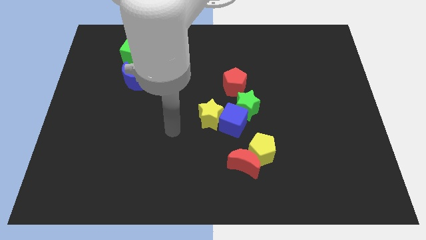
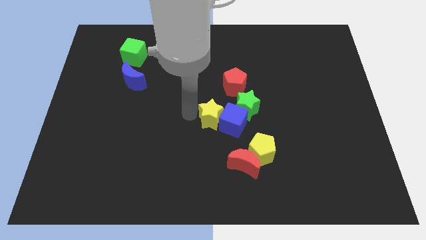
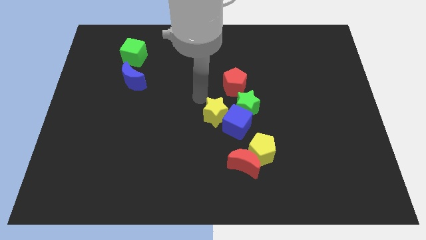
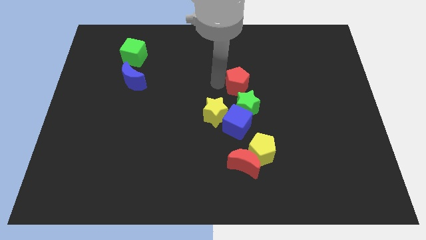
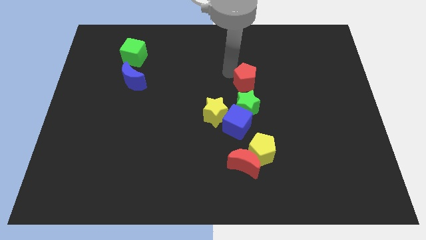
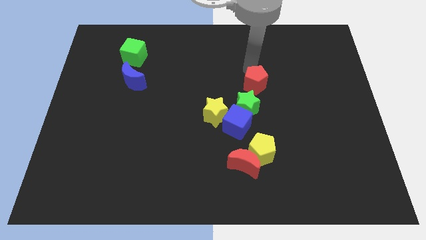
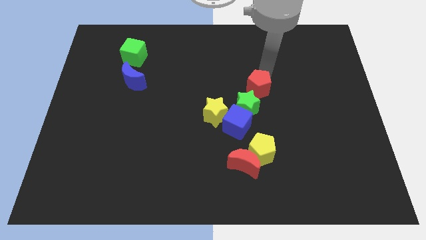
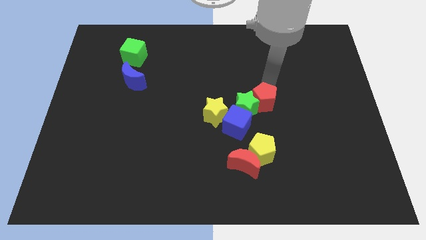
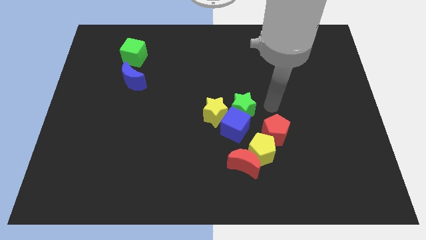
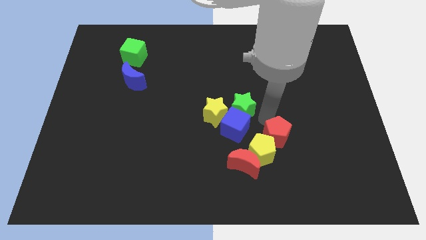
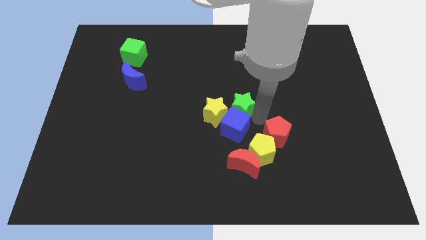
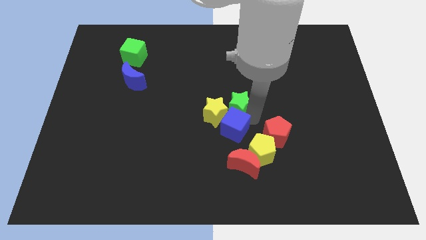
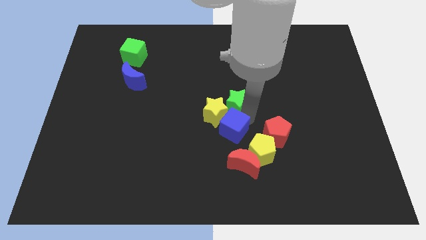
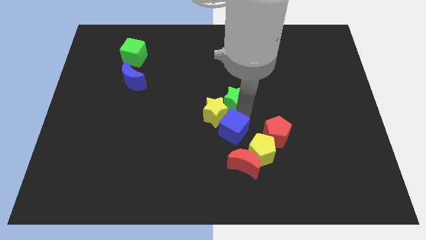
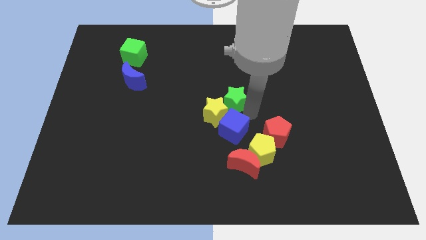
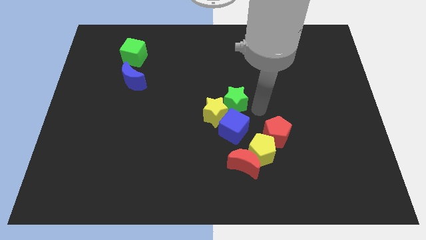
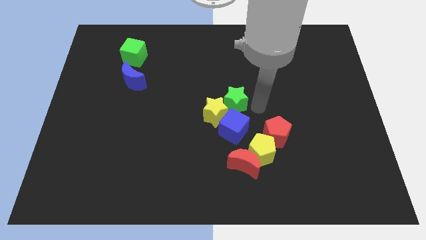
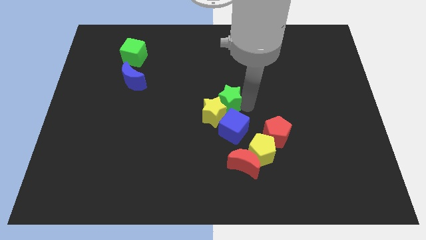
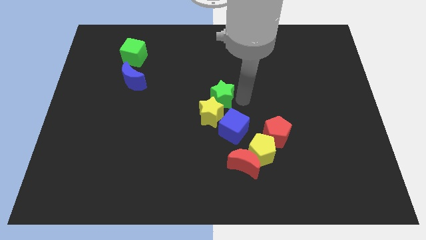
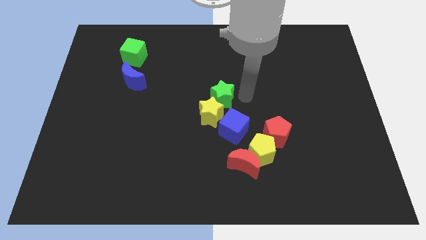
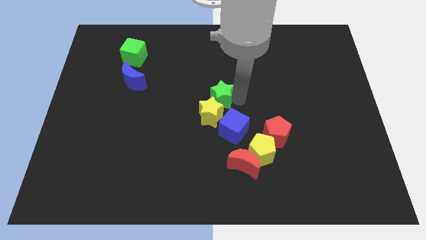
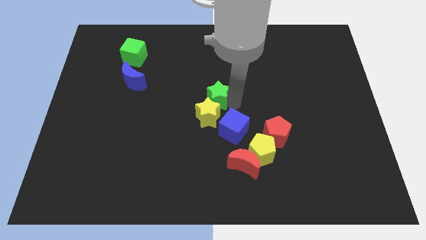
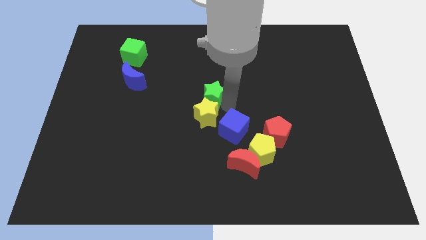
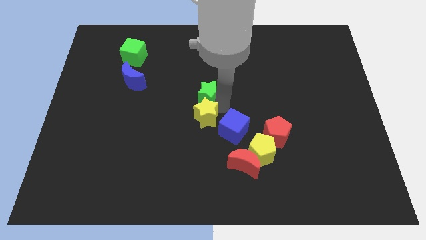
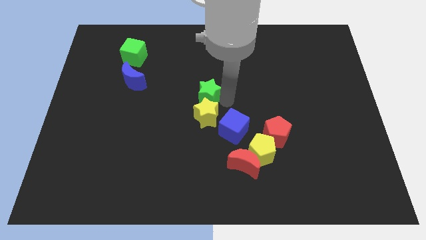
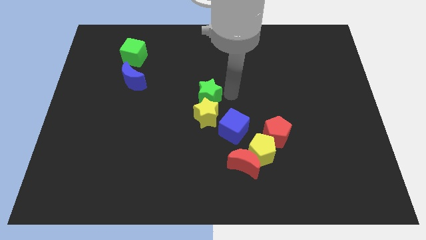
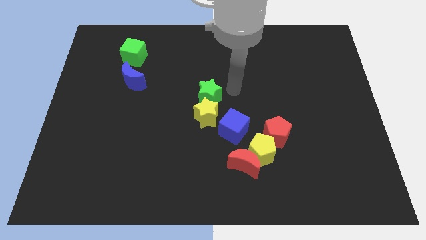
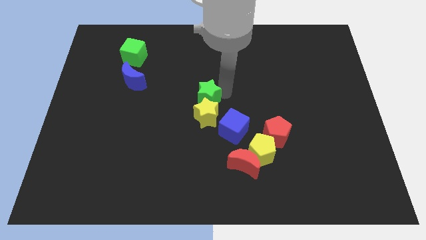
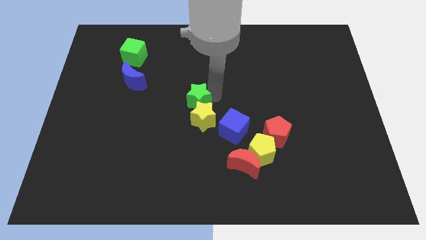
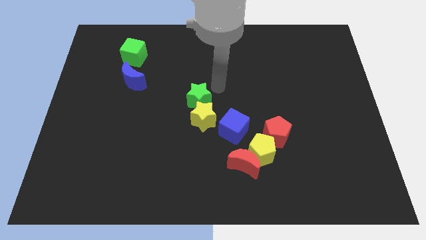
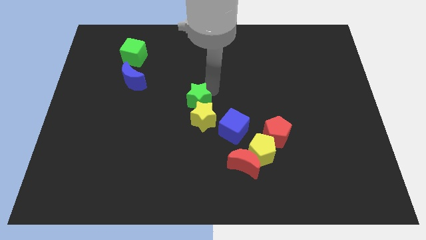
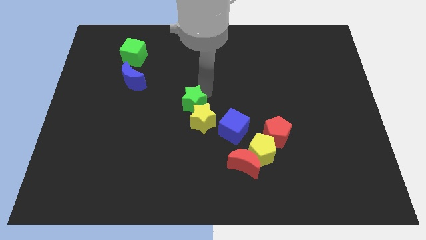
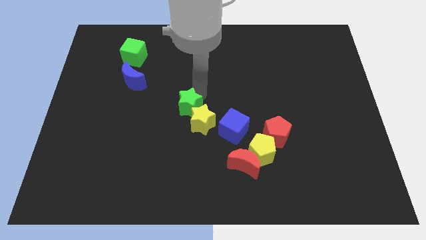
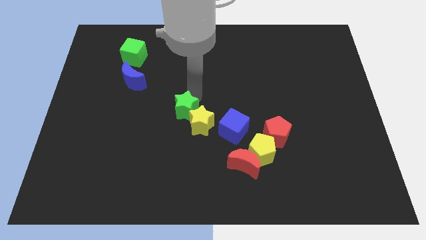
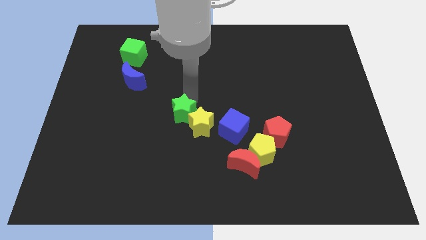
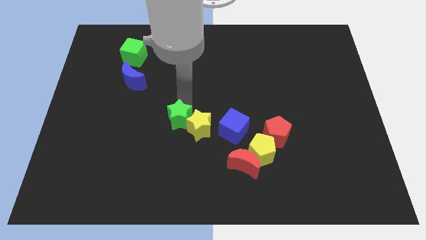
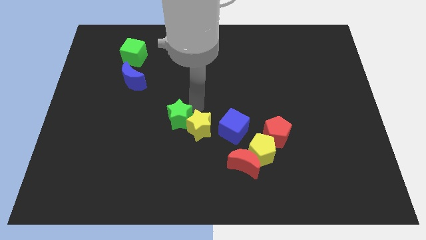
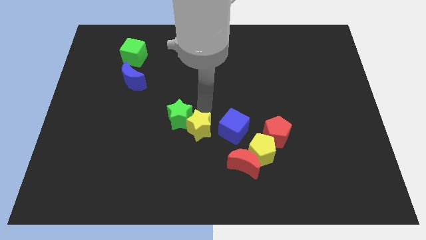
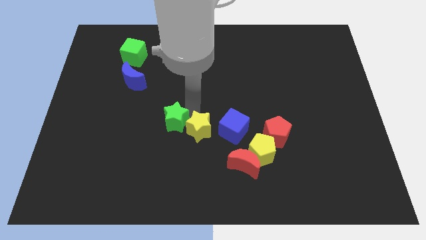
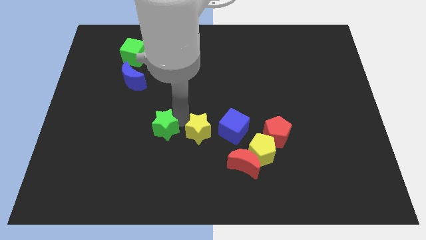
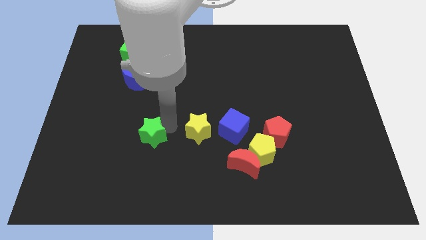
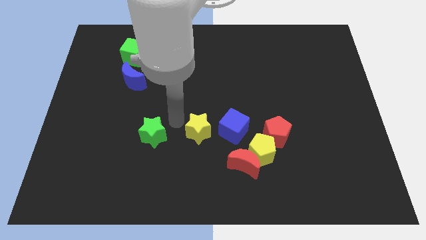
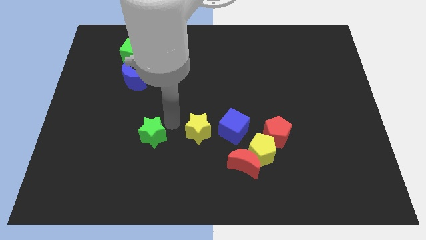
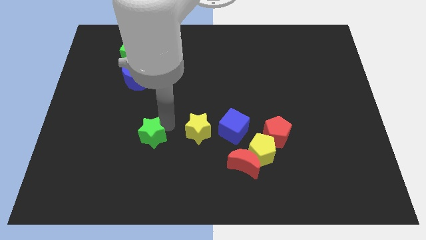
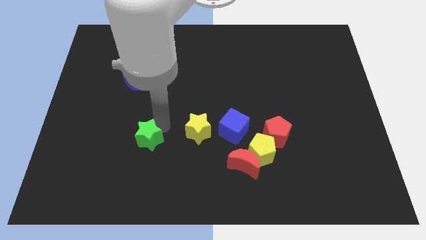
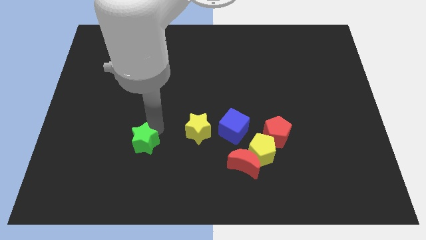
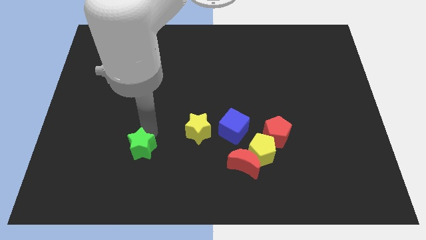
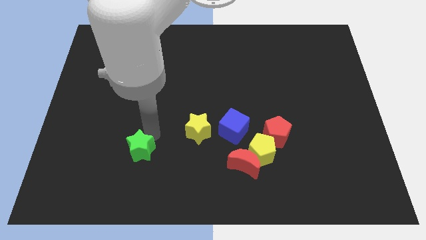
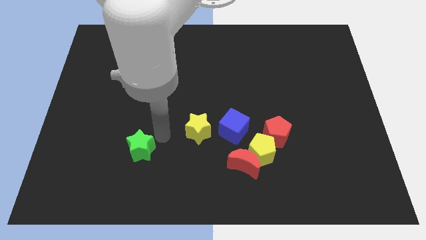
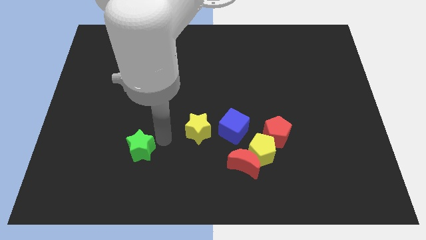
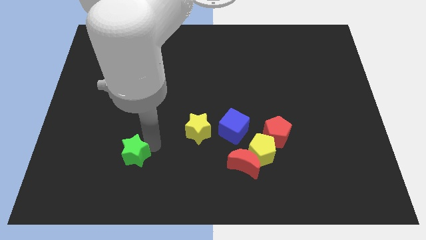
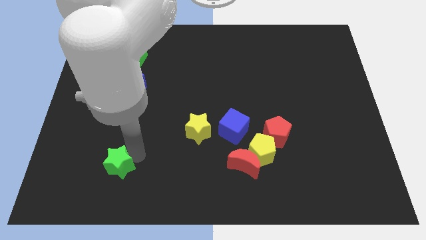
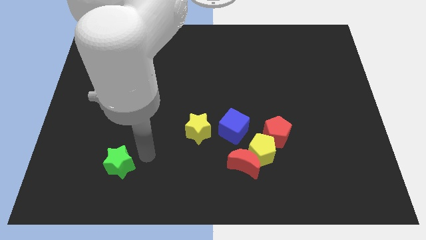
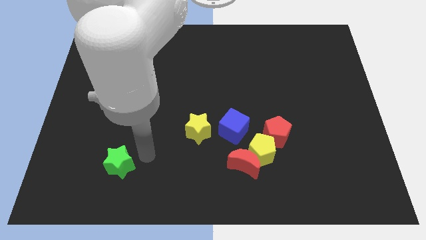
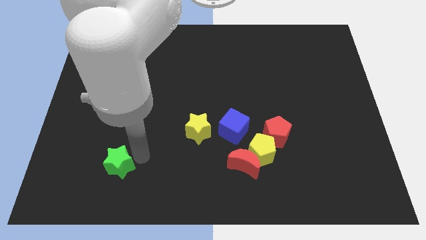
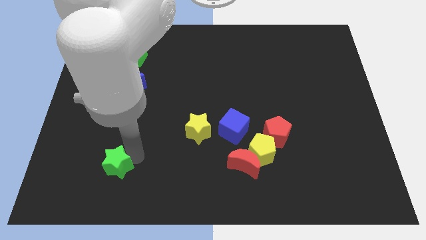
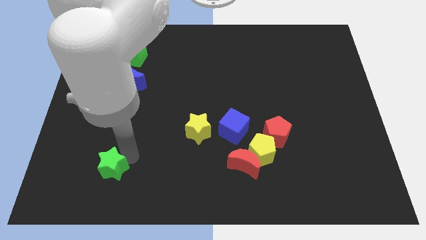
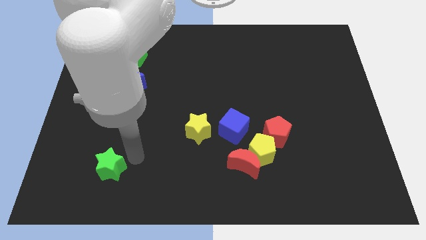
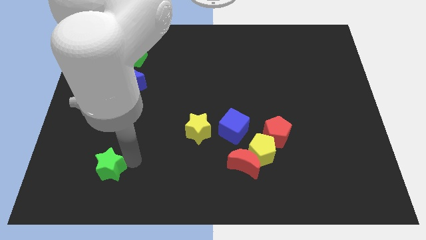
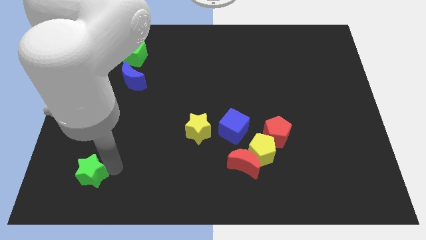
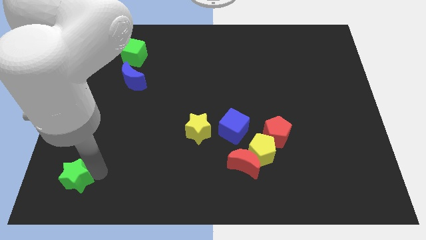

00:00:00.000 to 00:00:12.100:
push the green star to the bottom left of the board

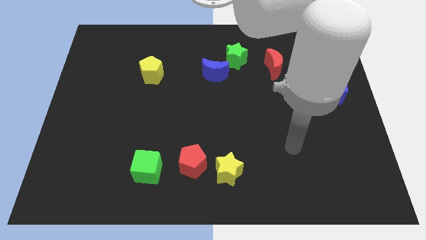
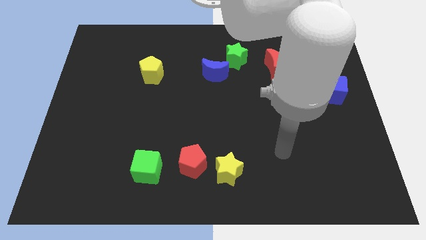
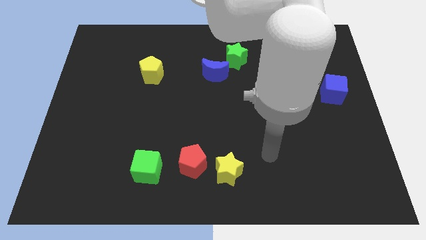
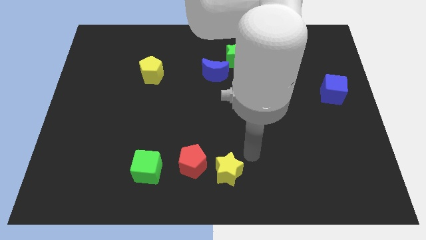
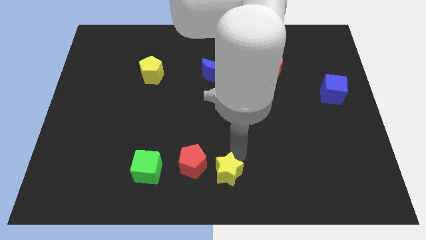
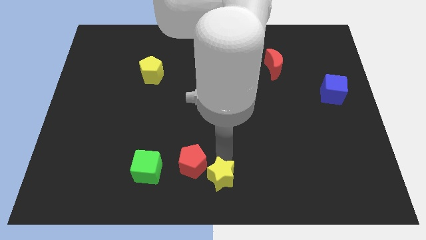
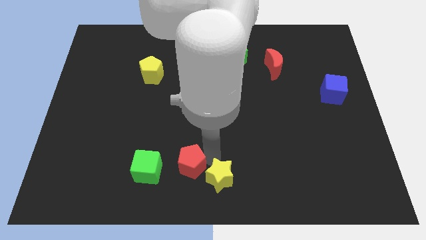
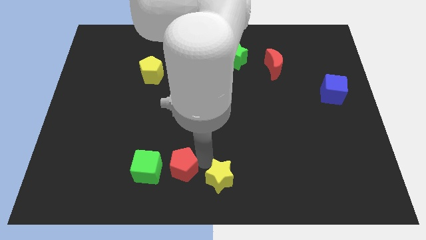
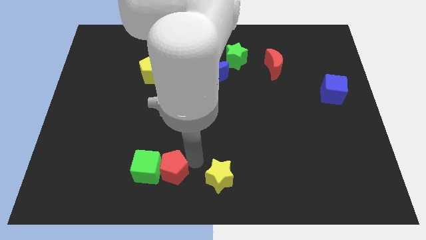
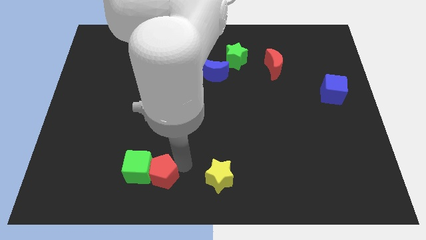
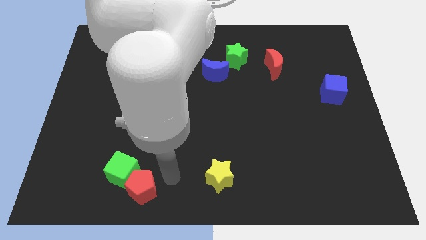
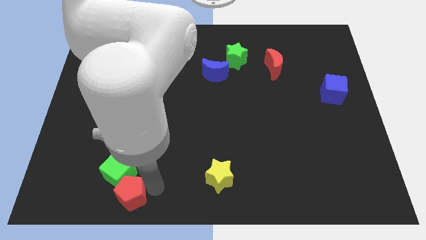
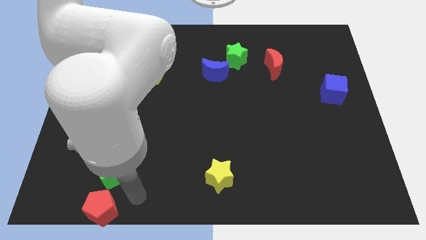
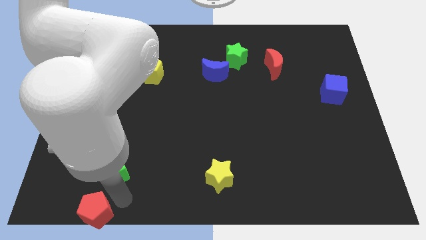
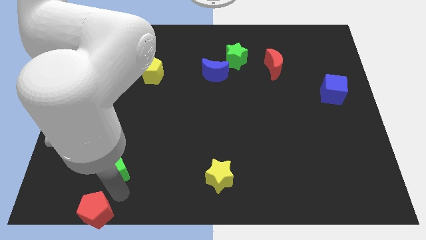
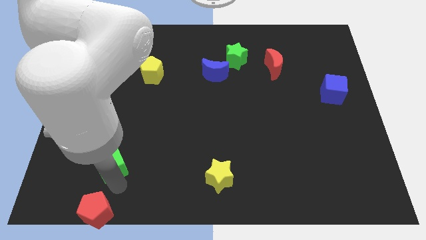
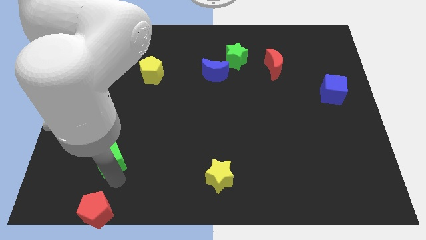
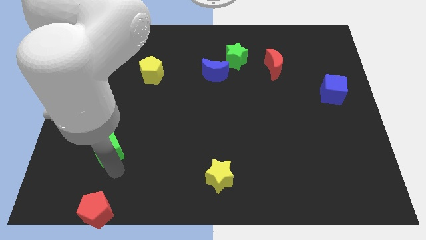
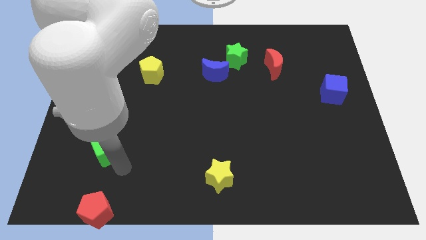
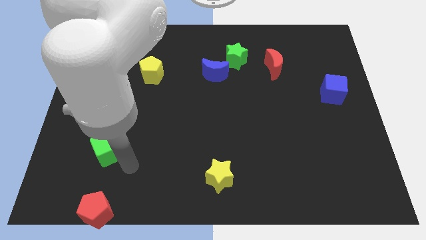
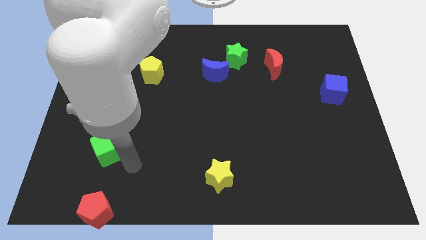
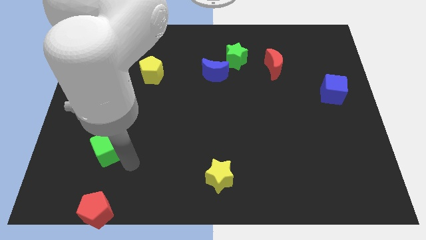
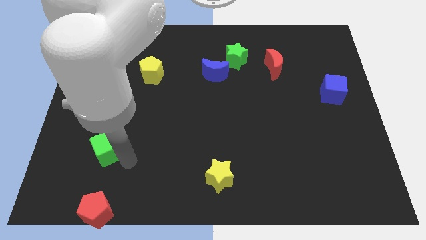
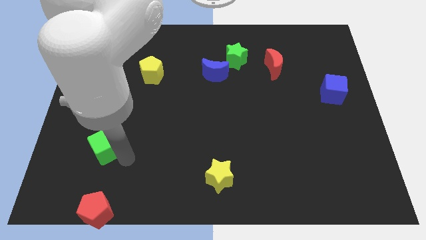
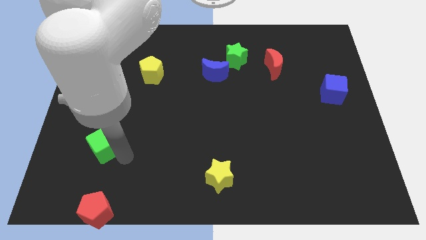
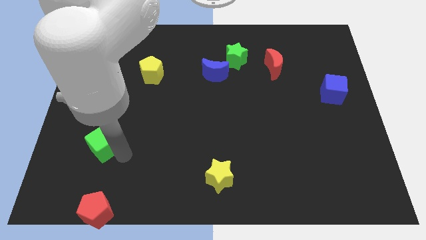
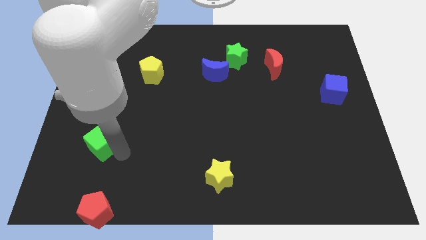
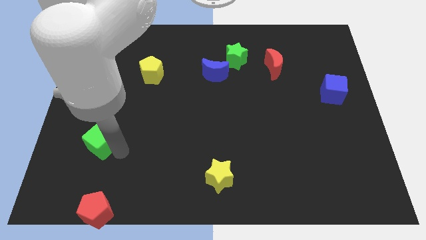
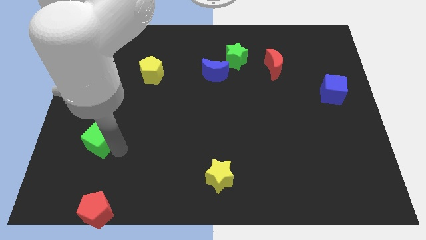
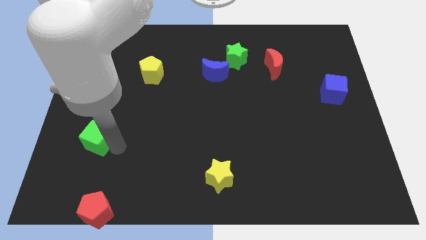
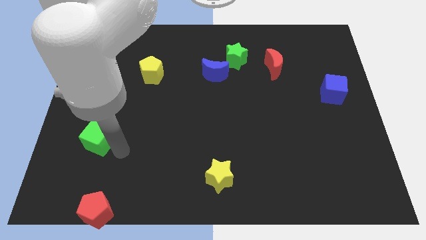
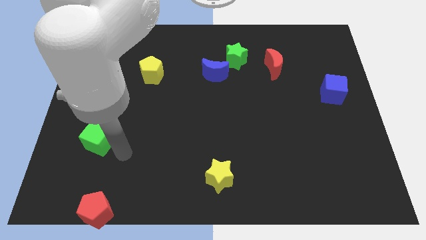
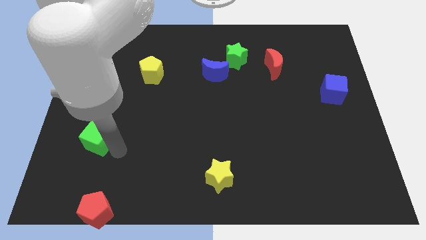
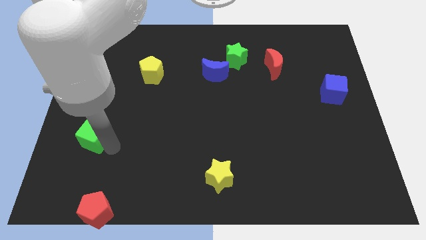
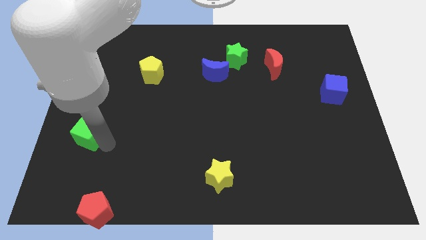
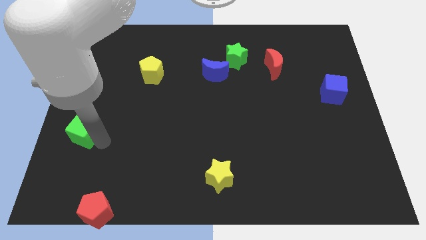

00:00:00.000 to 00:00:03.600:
slide the green cube to the left side
